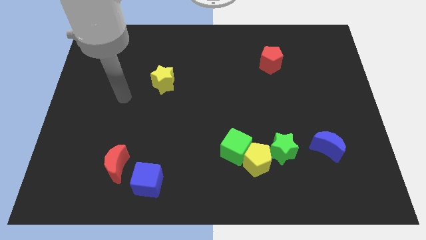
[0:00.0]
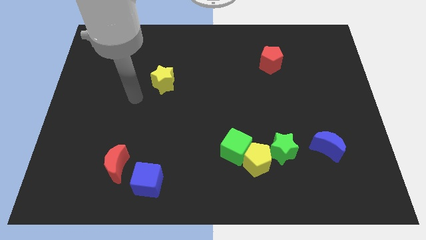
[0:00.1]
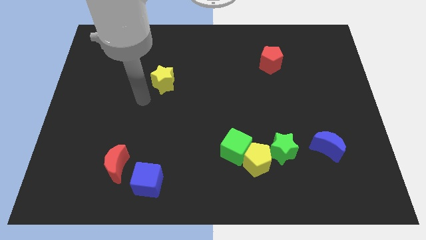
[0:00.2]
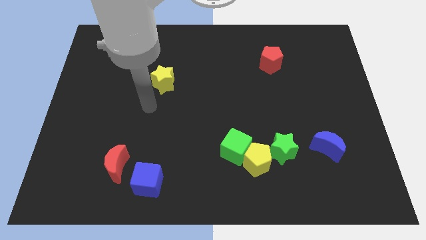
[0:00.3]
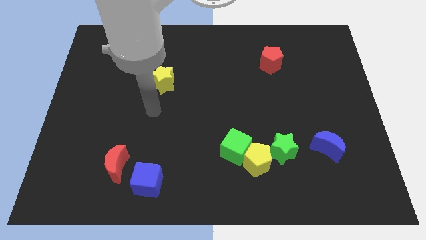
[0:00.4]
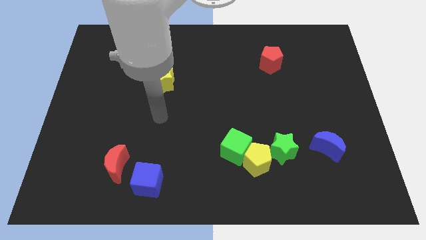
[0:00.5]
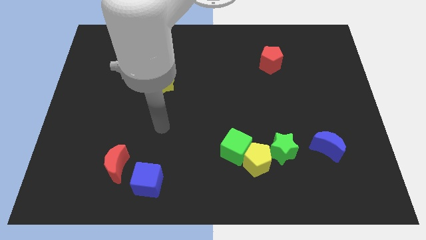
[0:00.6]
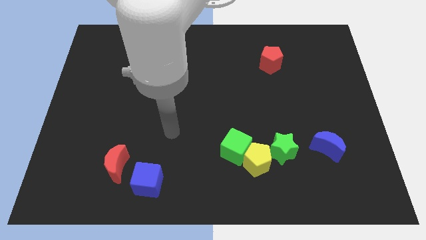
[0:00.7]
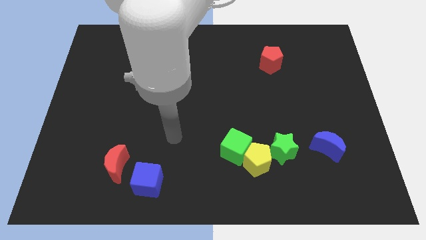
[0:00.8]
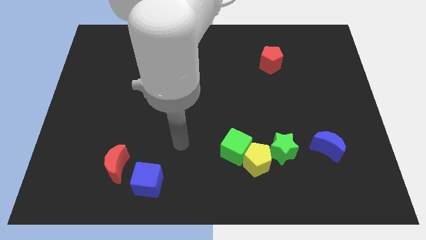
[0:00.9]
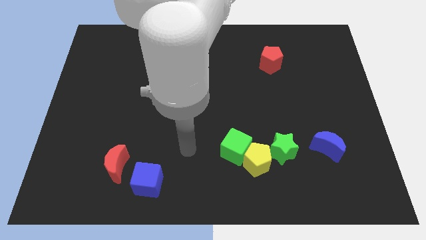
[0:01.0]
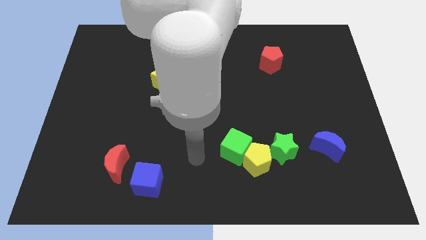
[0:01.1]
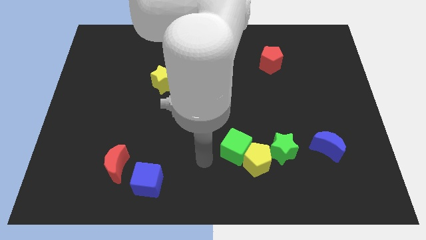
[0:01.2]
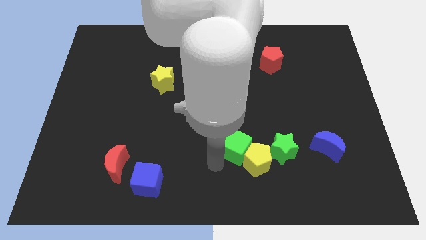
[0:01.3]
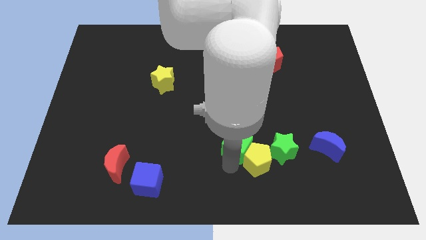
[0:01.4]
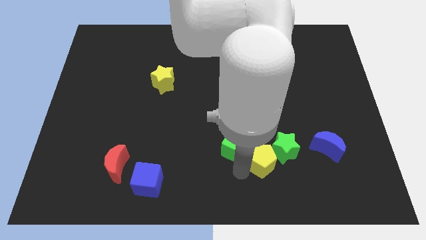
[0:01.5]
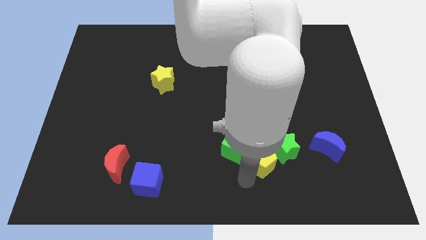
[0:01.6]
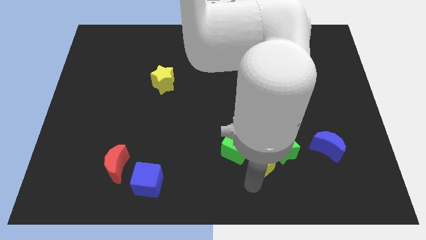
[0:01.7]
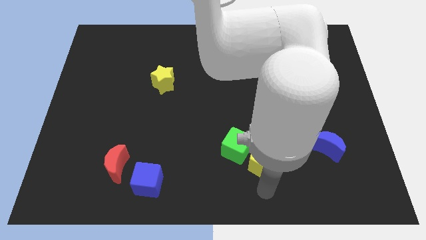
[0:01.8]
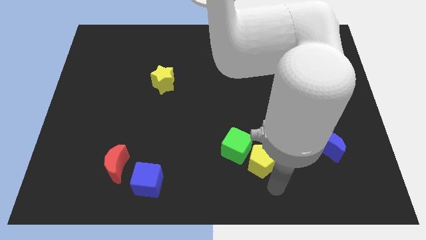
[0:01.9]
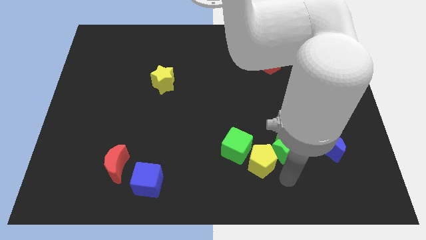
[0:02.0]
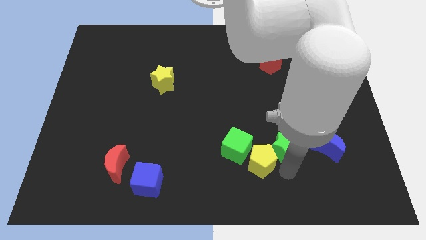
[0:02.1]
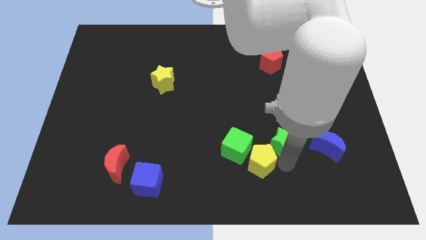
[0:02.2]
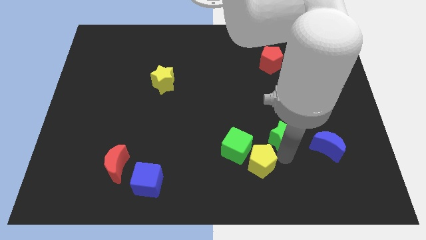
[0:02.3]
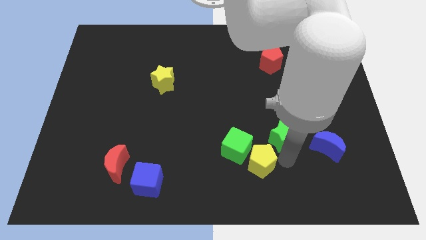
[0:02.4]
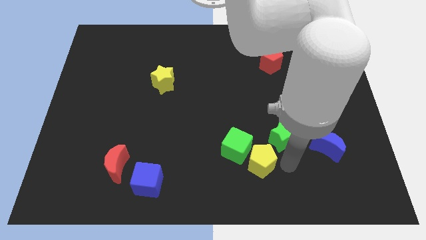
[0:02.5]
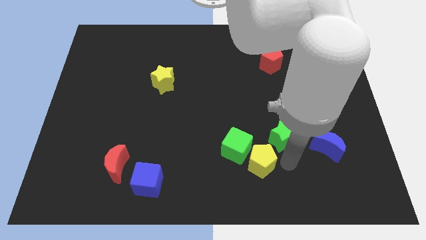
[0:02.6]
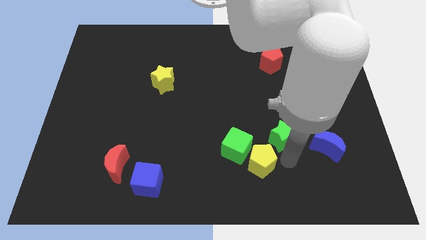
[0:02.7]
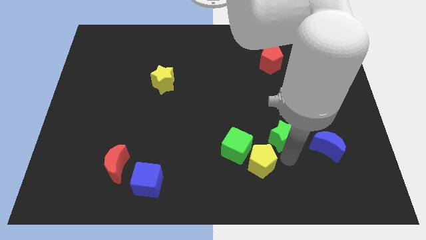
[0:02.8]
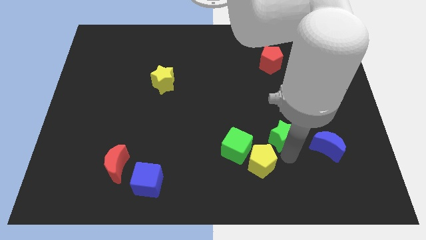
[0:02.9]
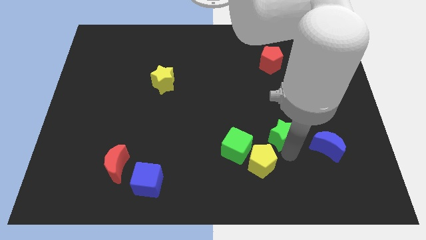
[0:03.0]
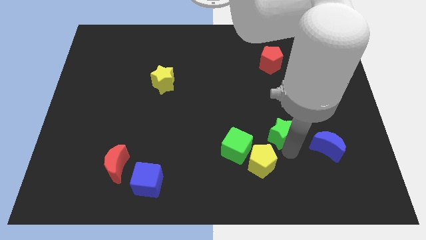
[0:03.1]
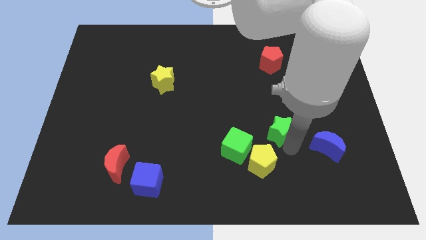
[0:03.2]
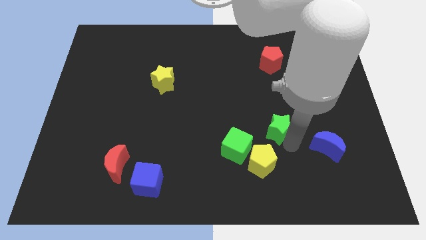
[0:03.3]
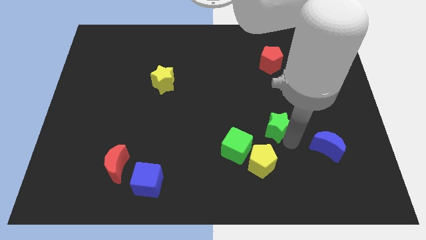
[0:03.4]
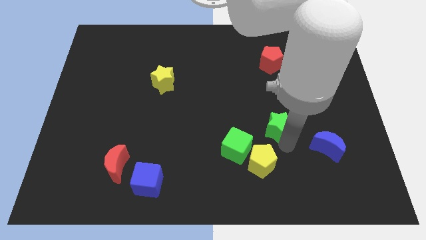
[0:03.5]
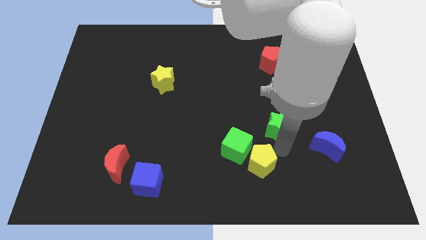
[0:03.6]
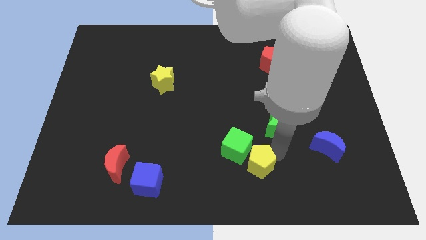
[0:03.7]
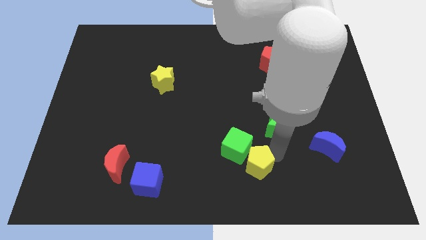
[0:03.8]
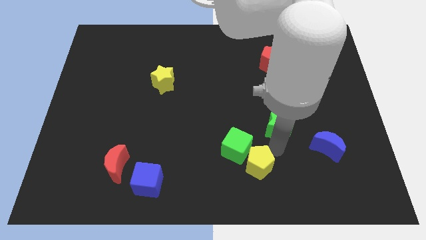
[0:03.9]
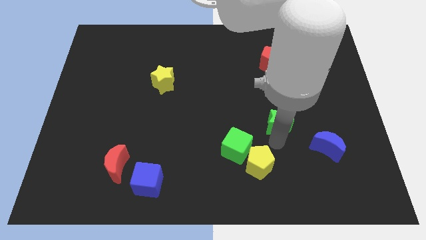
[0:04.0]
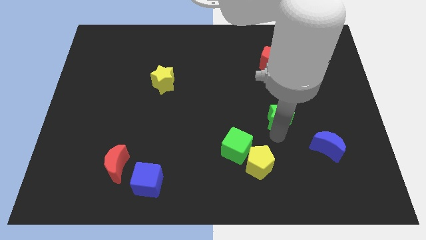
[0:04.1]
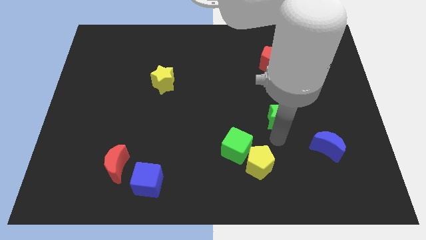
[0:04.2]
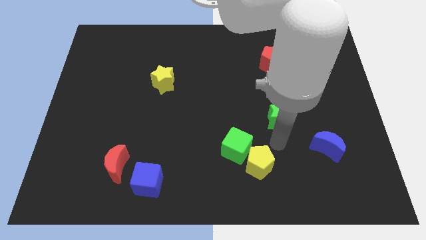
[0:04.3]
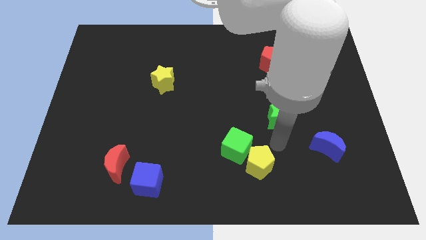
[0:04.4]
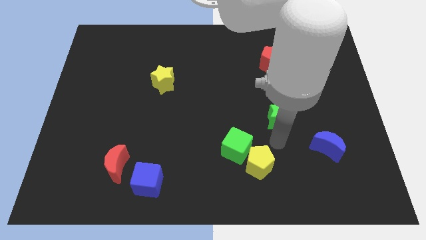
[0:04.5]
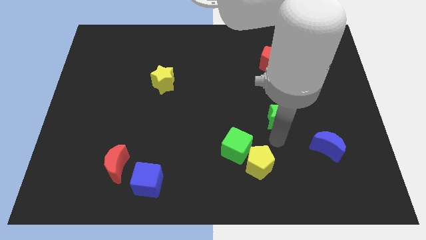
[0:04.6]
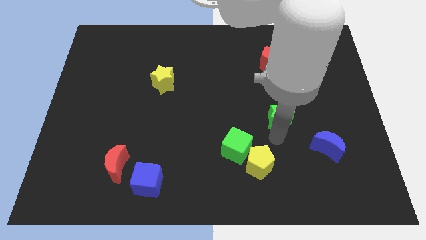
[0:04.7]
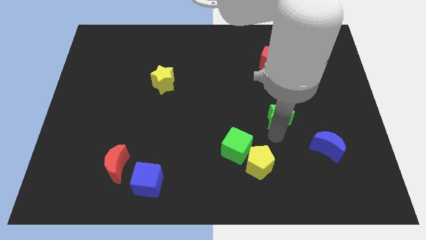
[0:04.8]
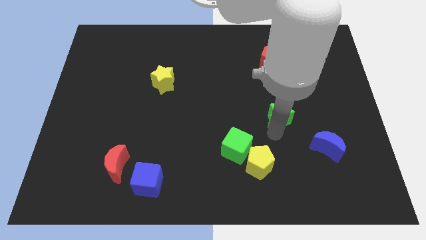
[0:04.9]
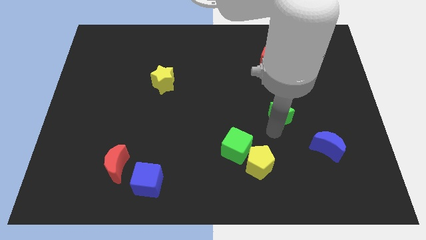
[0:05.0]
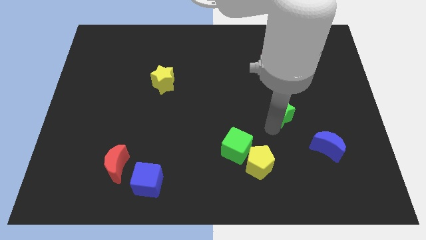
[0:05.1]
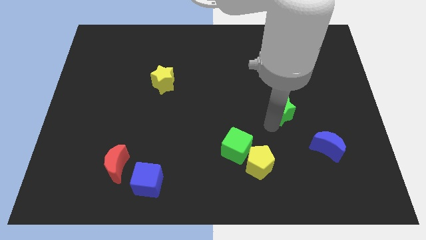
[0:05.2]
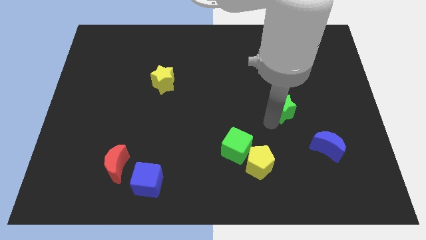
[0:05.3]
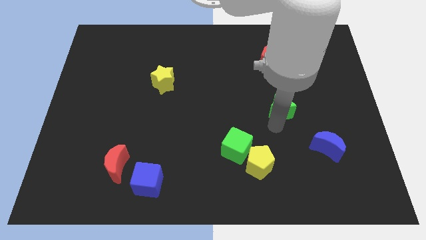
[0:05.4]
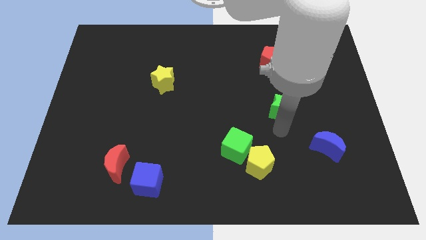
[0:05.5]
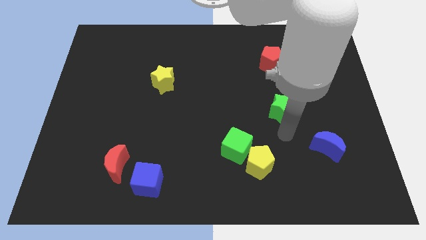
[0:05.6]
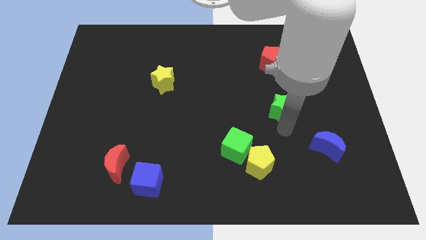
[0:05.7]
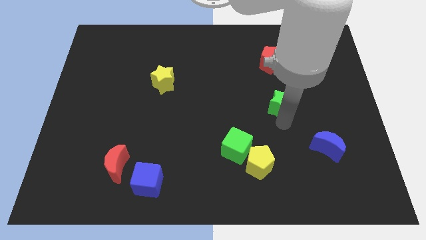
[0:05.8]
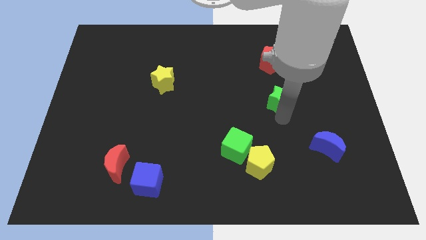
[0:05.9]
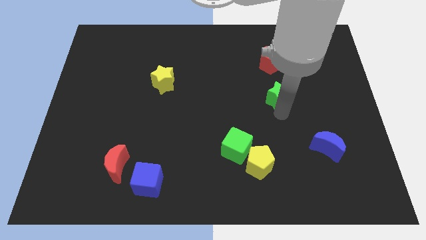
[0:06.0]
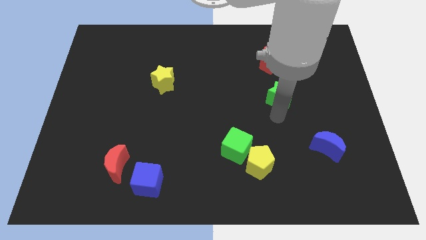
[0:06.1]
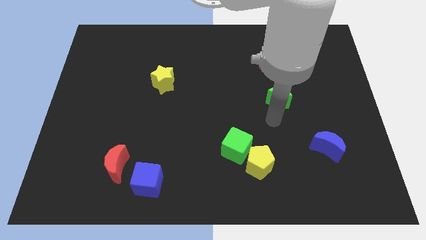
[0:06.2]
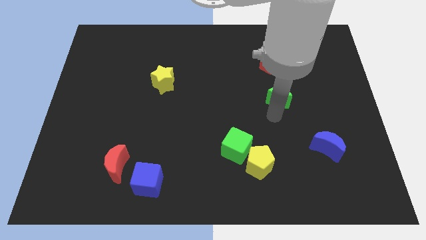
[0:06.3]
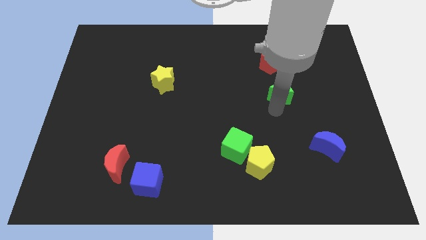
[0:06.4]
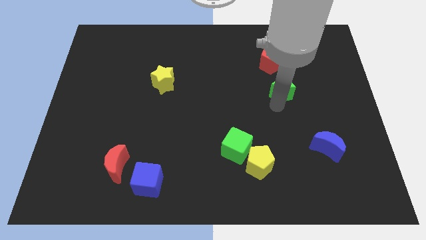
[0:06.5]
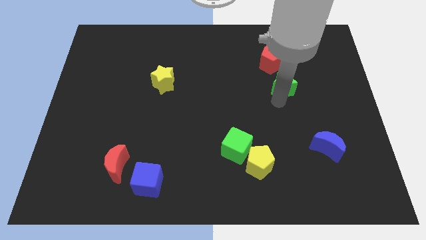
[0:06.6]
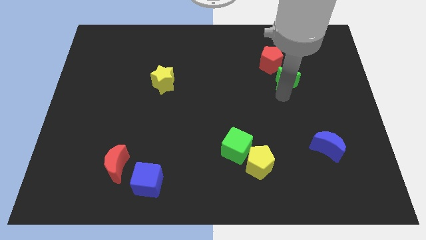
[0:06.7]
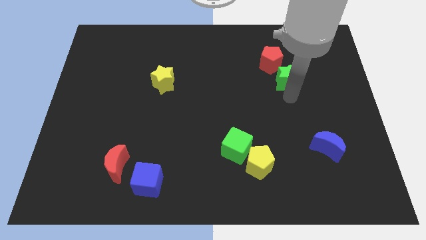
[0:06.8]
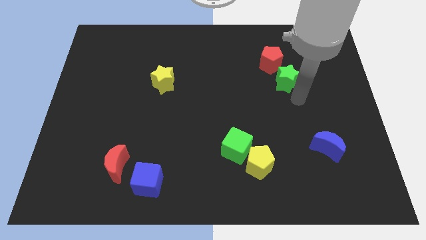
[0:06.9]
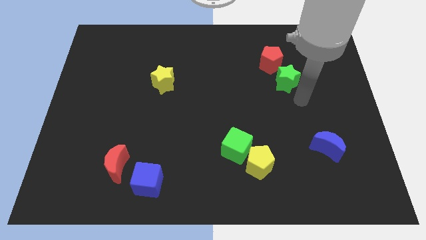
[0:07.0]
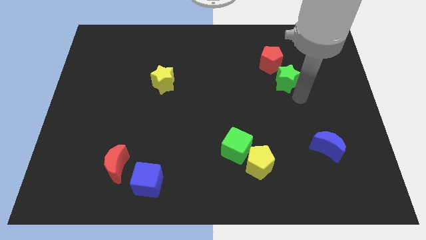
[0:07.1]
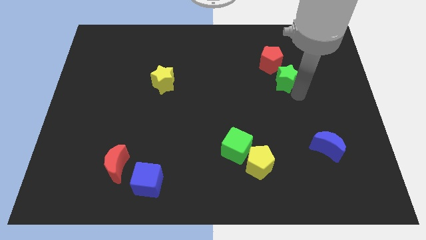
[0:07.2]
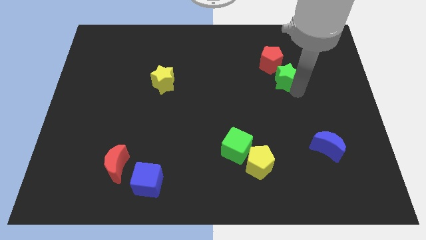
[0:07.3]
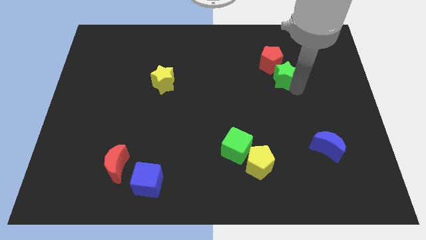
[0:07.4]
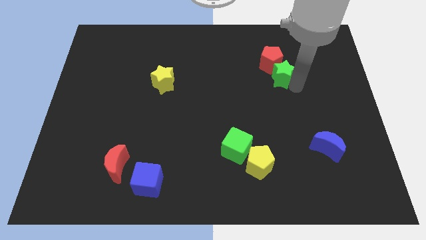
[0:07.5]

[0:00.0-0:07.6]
move the green star towards the red pentagon
